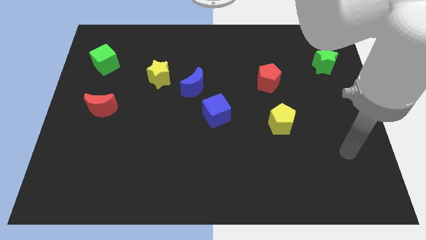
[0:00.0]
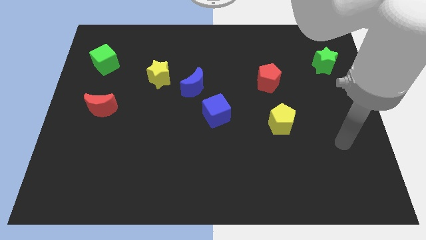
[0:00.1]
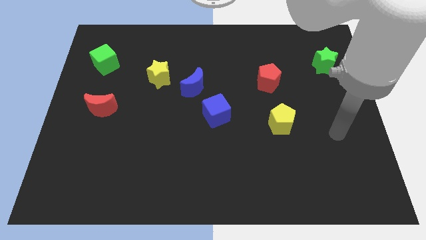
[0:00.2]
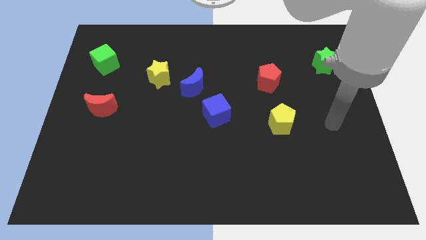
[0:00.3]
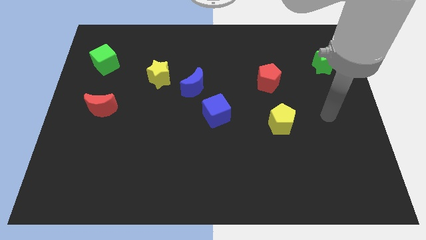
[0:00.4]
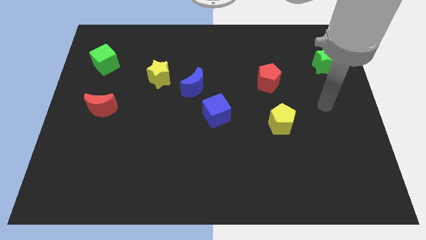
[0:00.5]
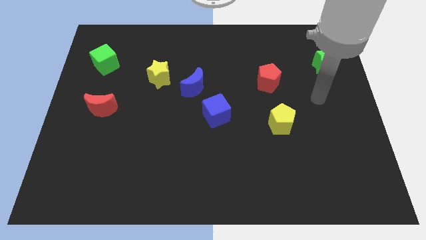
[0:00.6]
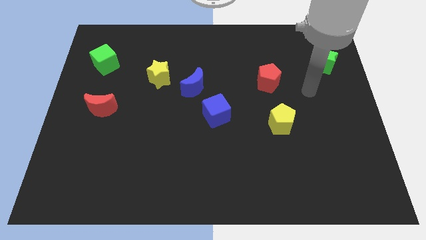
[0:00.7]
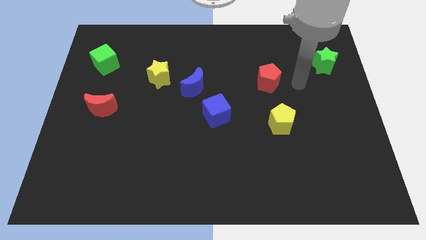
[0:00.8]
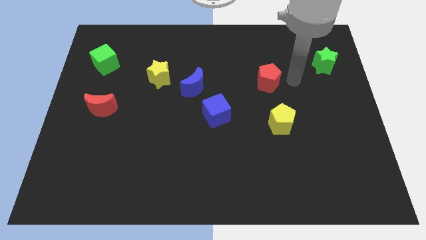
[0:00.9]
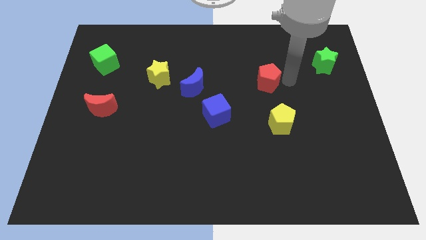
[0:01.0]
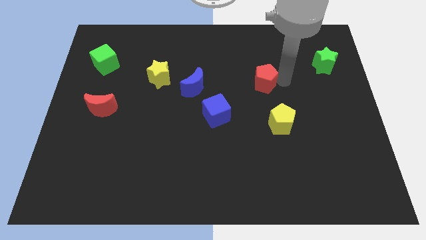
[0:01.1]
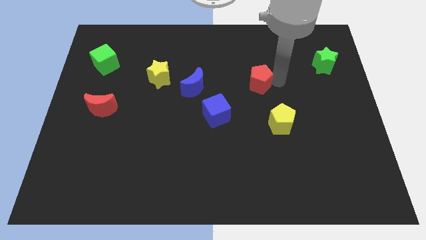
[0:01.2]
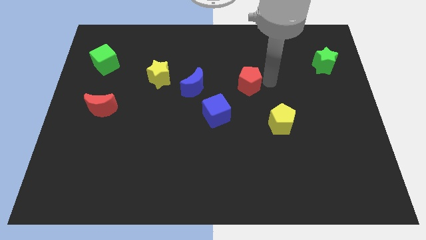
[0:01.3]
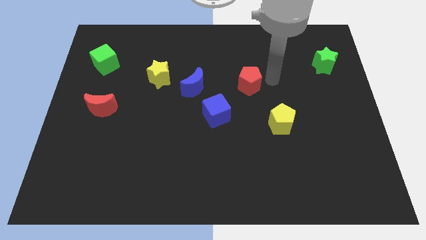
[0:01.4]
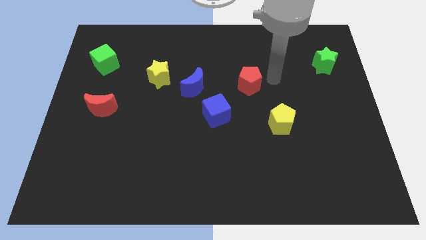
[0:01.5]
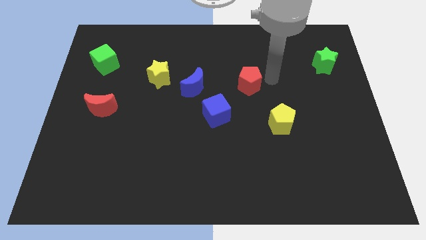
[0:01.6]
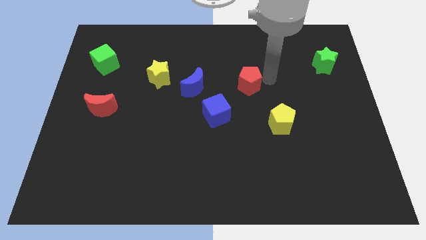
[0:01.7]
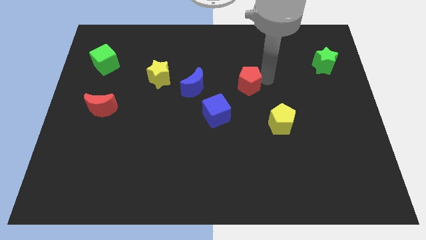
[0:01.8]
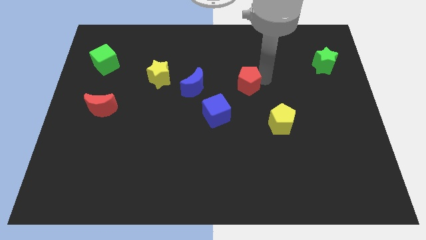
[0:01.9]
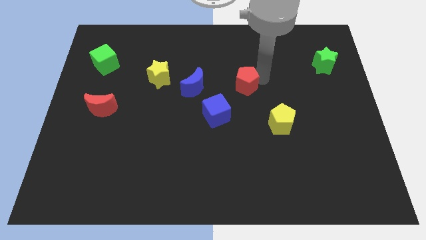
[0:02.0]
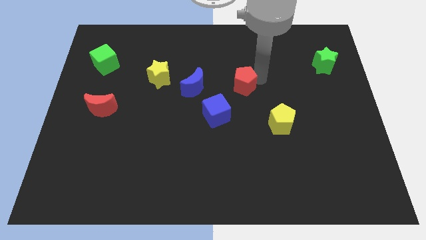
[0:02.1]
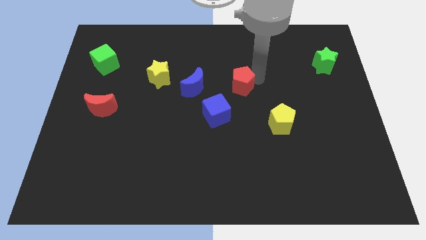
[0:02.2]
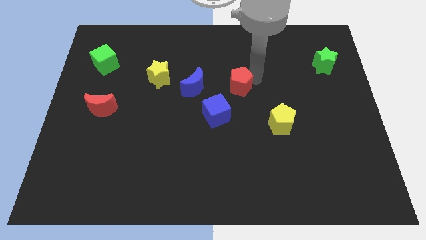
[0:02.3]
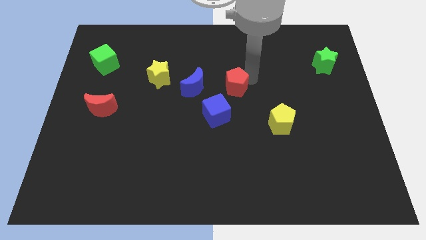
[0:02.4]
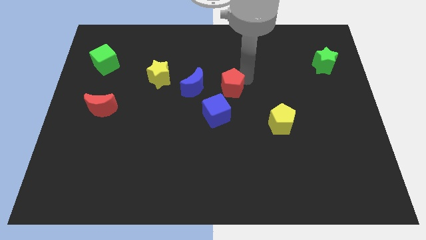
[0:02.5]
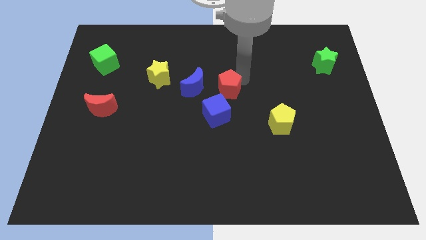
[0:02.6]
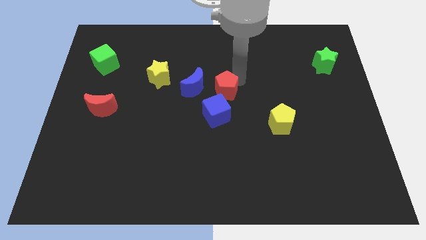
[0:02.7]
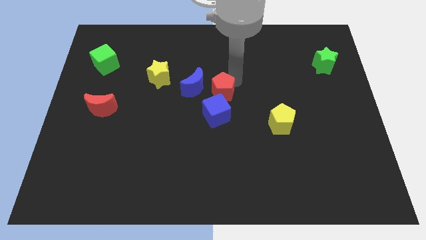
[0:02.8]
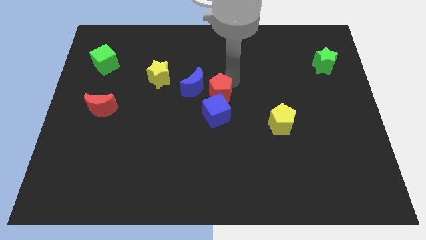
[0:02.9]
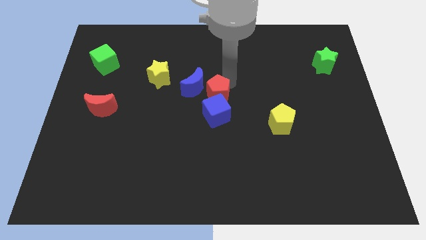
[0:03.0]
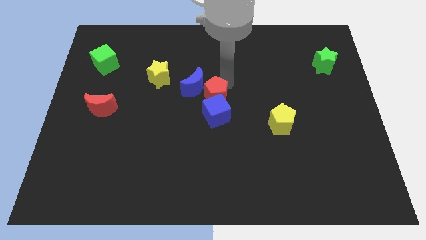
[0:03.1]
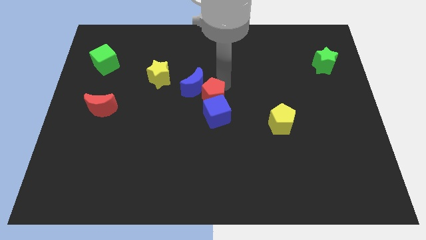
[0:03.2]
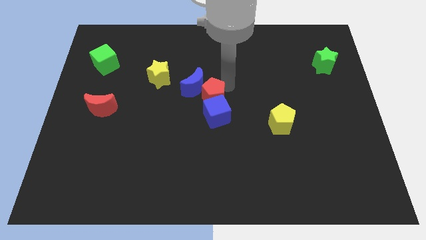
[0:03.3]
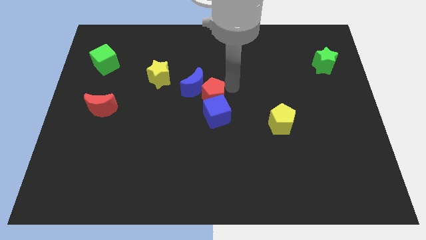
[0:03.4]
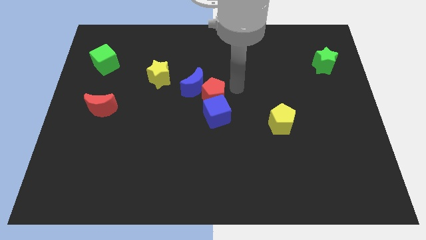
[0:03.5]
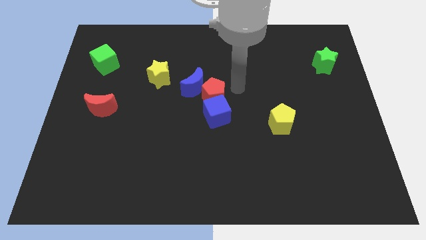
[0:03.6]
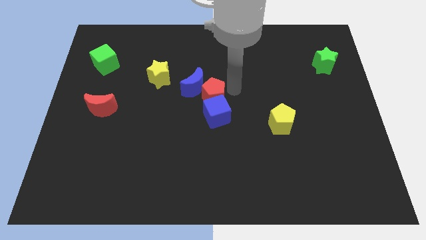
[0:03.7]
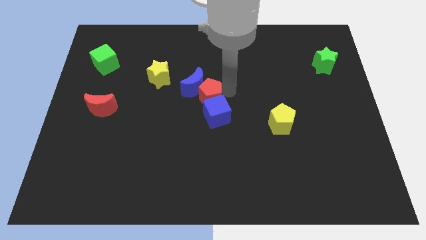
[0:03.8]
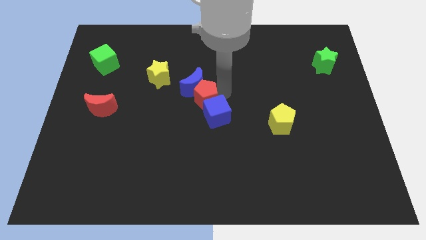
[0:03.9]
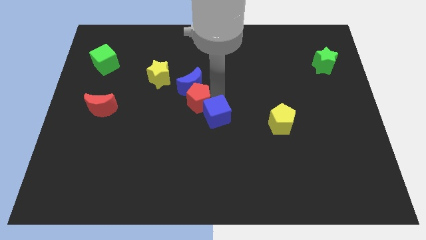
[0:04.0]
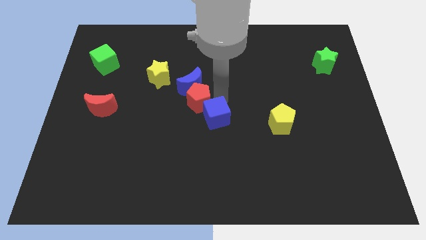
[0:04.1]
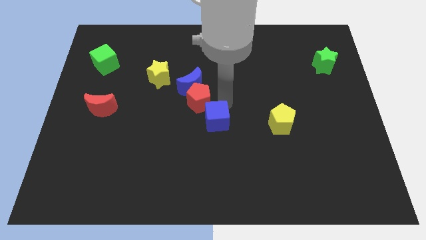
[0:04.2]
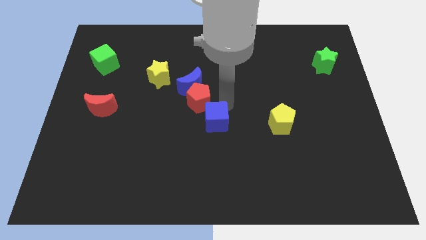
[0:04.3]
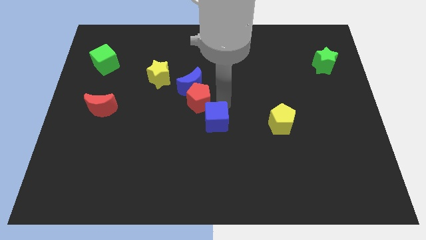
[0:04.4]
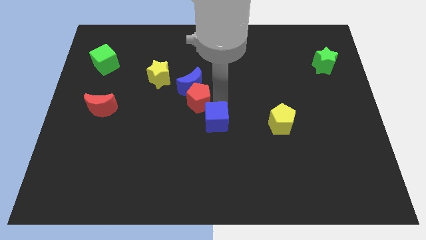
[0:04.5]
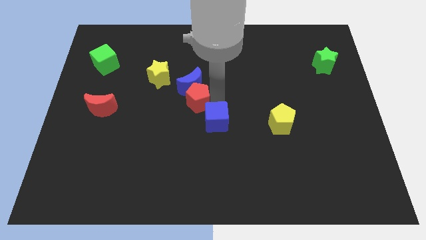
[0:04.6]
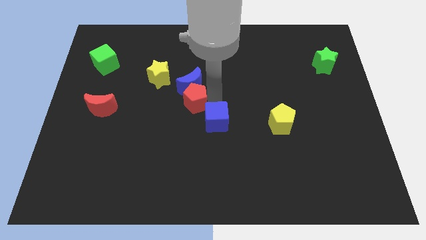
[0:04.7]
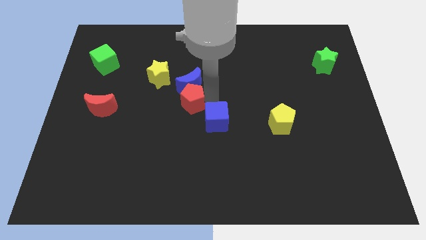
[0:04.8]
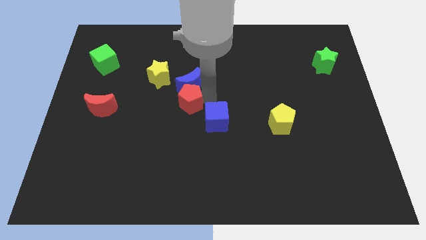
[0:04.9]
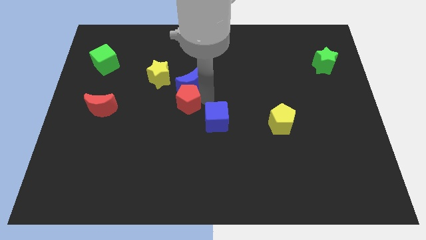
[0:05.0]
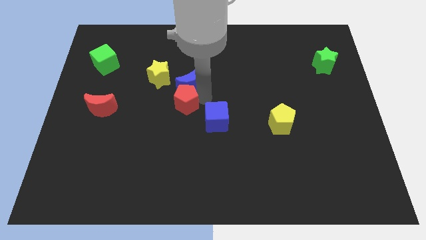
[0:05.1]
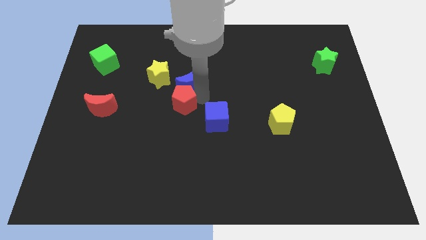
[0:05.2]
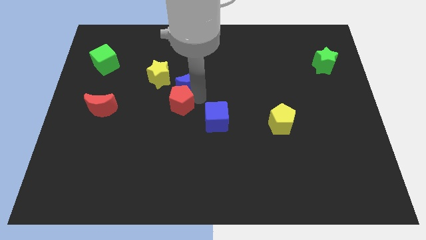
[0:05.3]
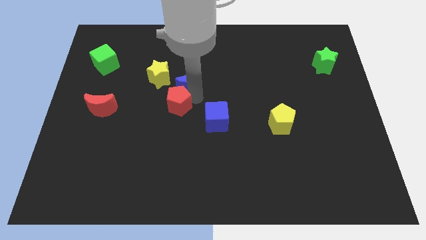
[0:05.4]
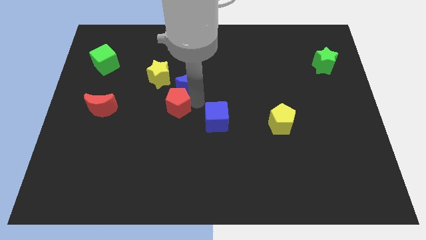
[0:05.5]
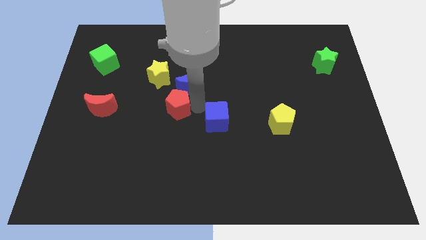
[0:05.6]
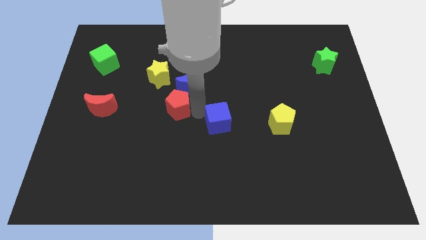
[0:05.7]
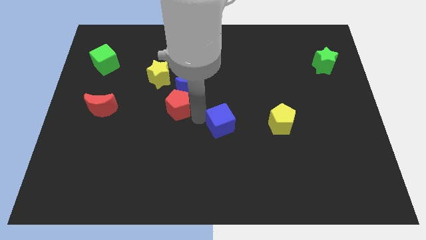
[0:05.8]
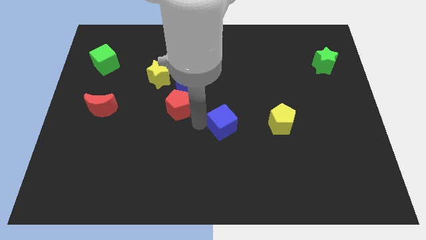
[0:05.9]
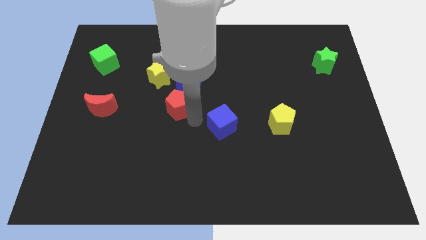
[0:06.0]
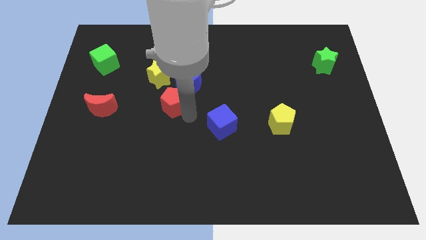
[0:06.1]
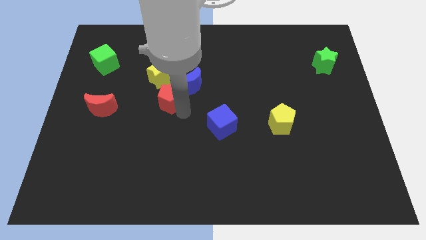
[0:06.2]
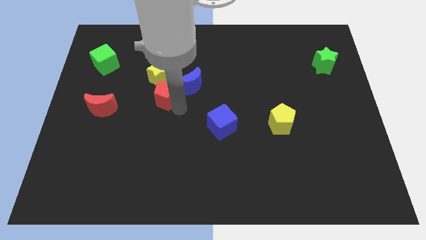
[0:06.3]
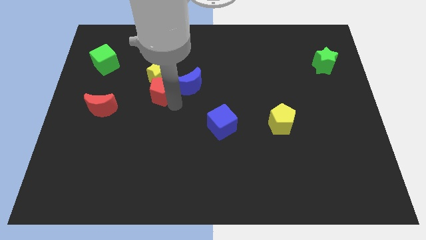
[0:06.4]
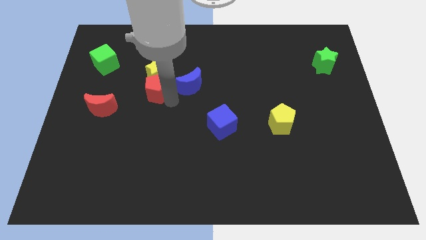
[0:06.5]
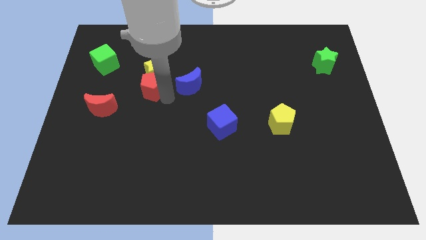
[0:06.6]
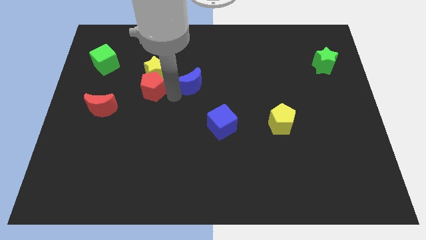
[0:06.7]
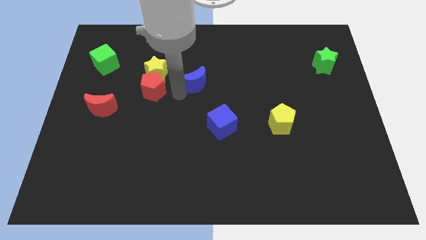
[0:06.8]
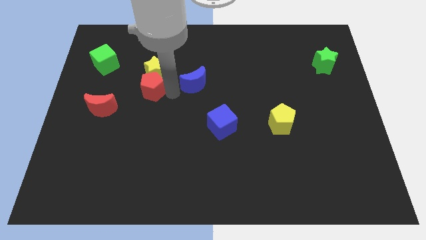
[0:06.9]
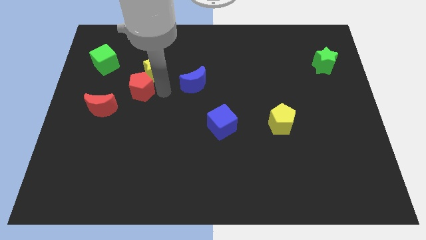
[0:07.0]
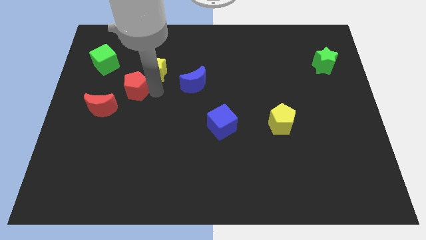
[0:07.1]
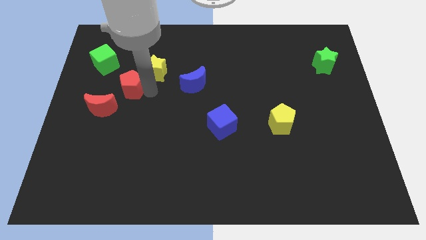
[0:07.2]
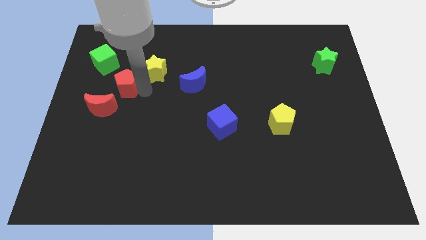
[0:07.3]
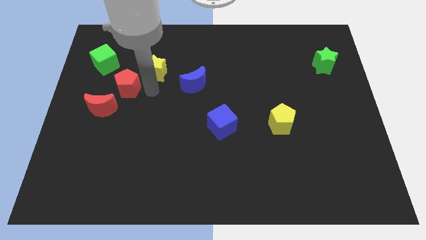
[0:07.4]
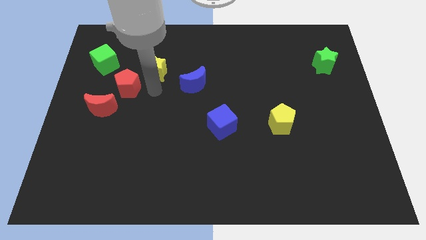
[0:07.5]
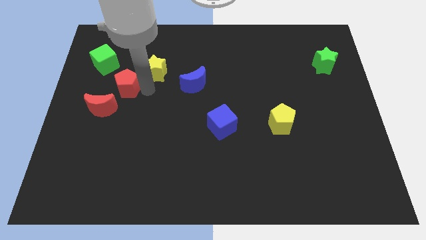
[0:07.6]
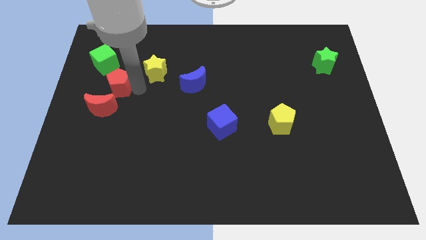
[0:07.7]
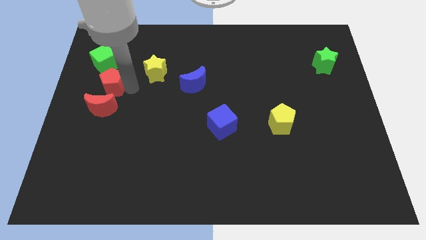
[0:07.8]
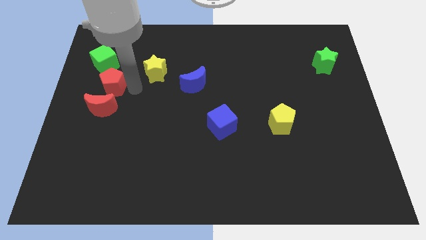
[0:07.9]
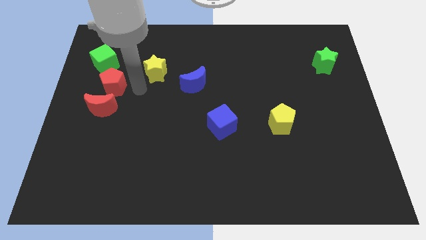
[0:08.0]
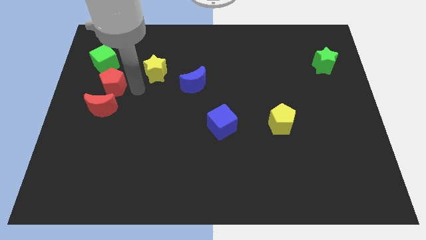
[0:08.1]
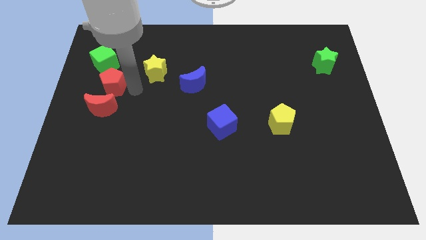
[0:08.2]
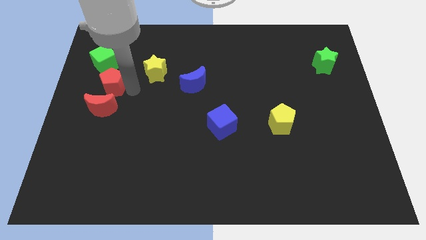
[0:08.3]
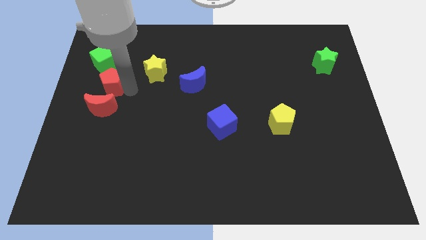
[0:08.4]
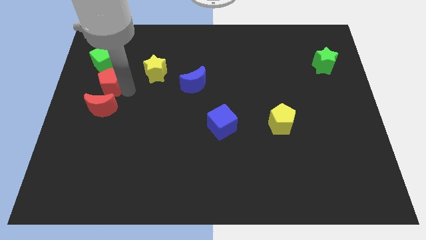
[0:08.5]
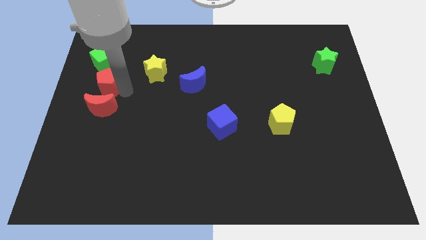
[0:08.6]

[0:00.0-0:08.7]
push the red pentagon to the left side
